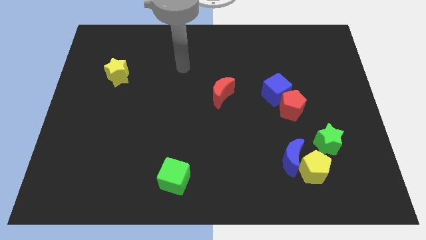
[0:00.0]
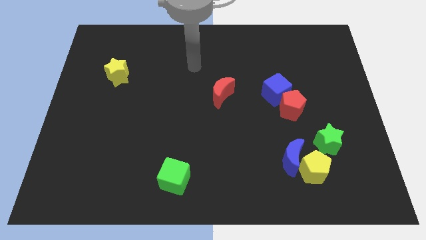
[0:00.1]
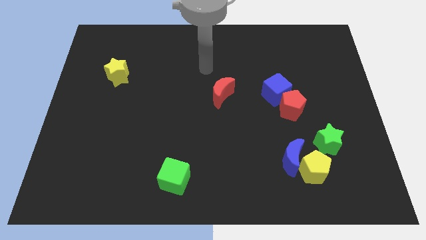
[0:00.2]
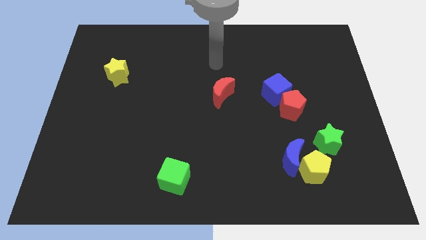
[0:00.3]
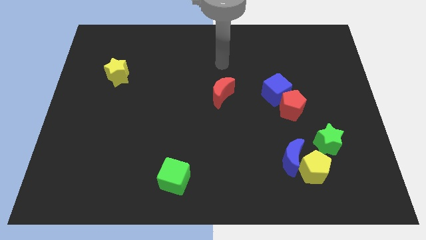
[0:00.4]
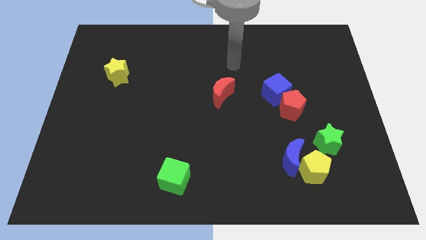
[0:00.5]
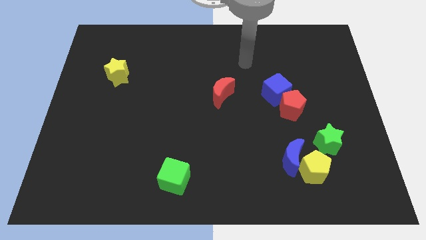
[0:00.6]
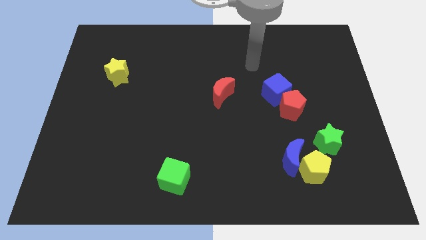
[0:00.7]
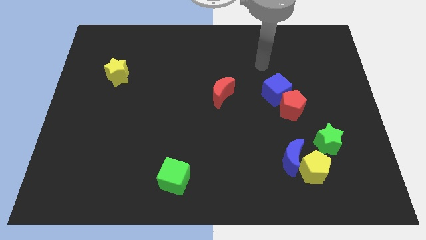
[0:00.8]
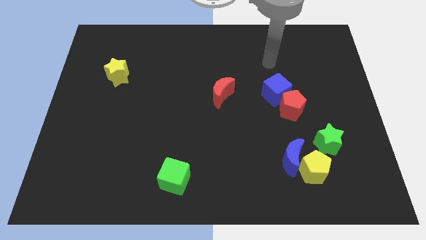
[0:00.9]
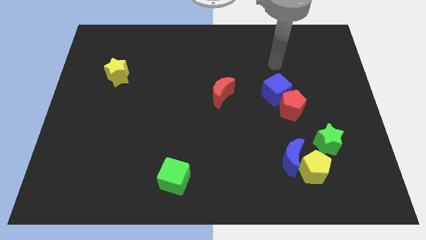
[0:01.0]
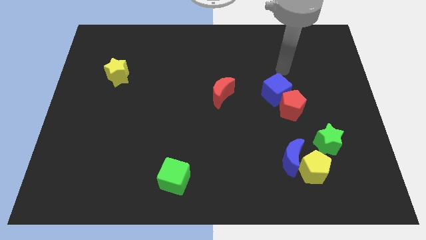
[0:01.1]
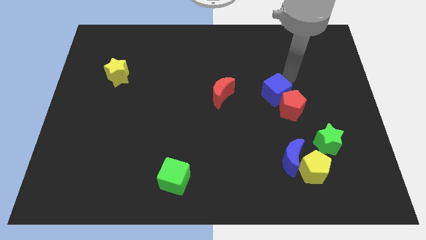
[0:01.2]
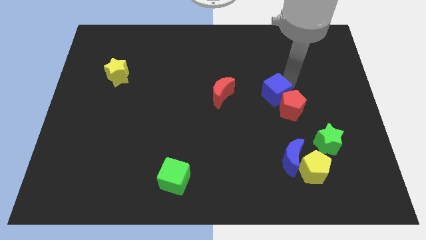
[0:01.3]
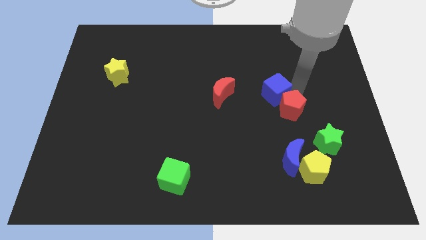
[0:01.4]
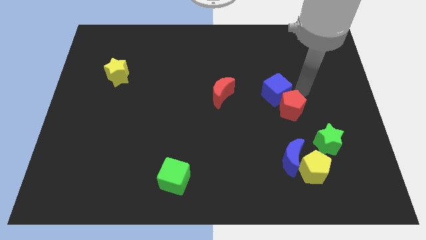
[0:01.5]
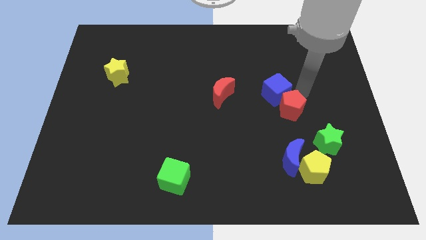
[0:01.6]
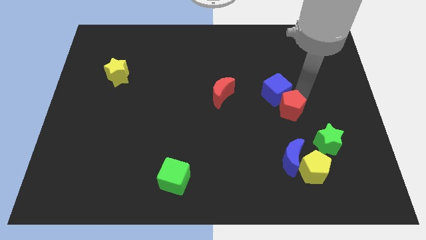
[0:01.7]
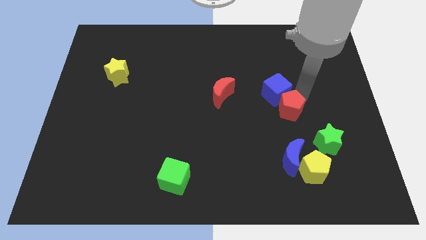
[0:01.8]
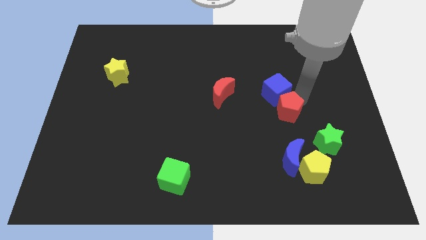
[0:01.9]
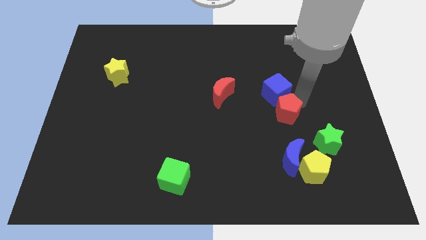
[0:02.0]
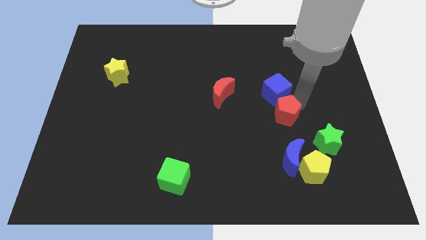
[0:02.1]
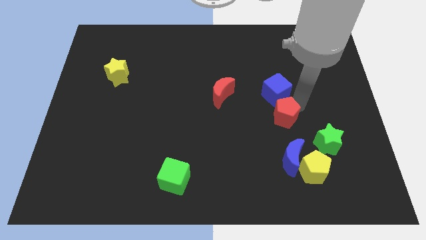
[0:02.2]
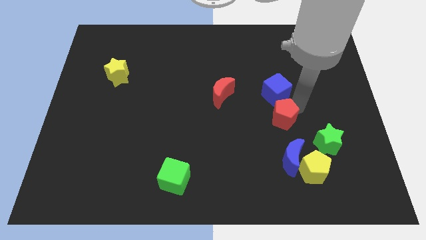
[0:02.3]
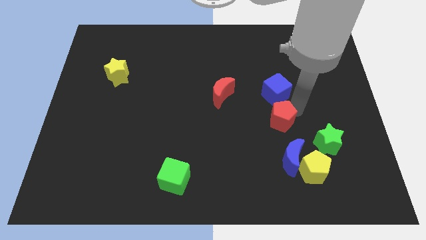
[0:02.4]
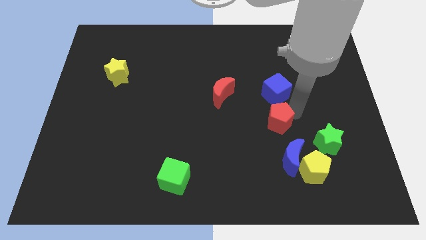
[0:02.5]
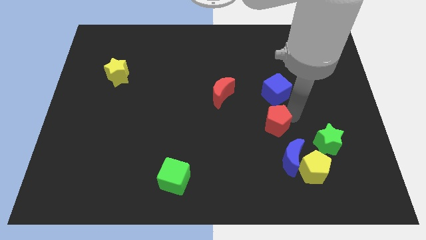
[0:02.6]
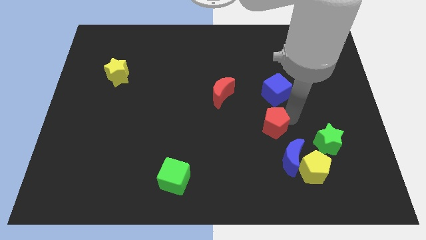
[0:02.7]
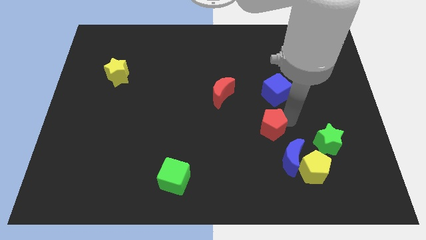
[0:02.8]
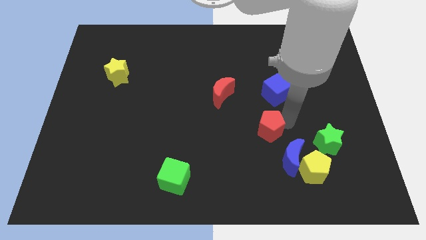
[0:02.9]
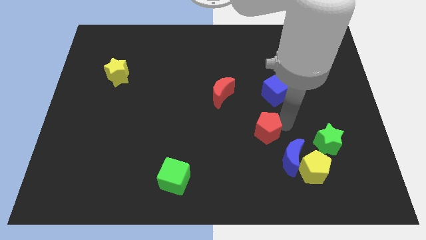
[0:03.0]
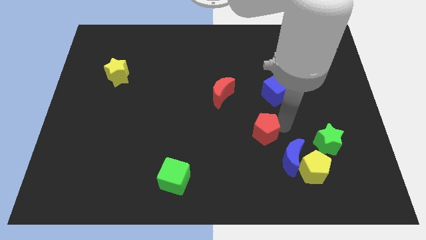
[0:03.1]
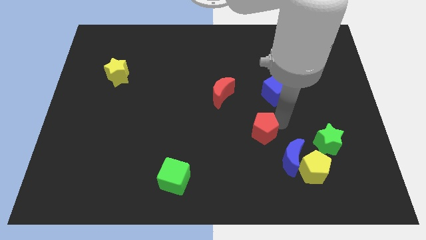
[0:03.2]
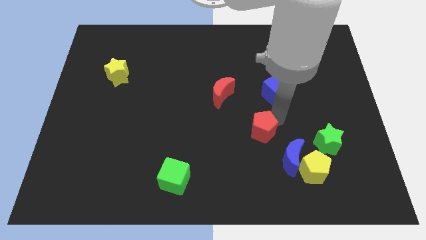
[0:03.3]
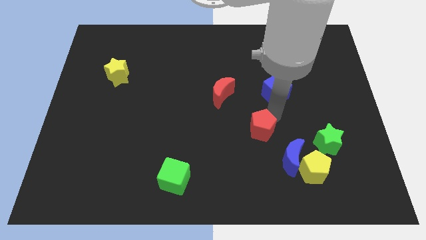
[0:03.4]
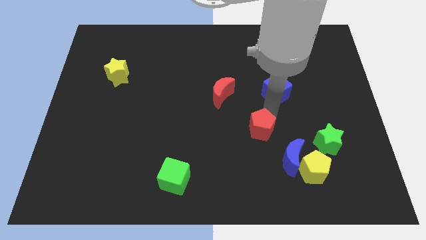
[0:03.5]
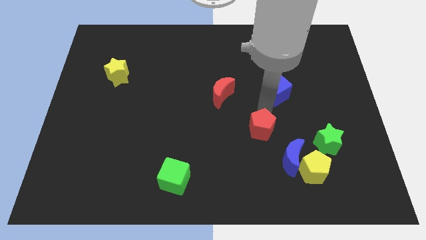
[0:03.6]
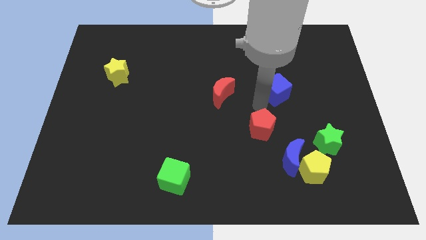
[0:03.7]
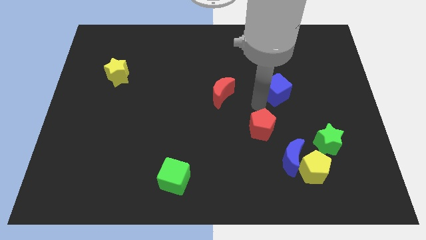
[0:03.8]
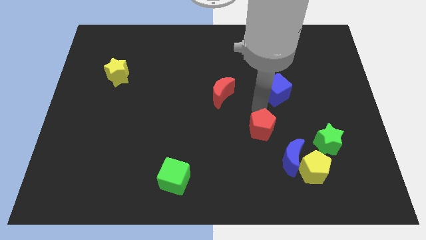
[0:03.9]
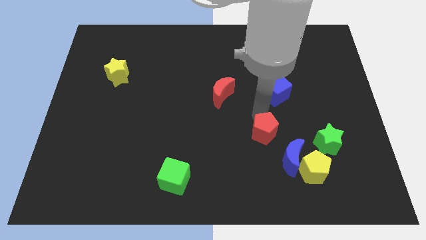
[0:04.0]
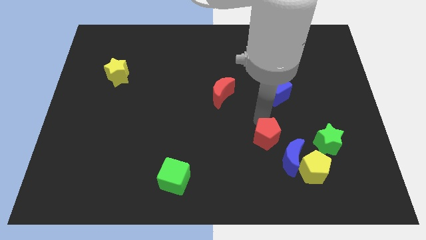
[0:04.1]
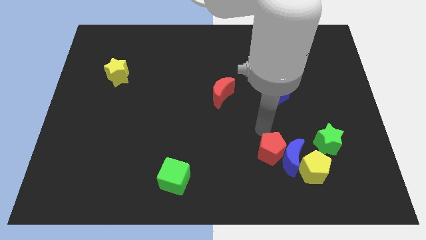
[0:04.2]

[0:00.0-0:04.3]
slightly slide the red pentagon down

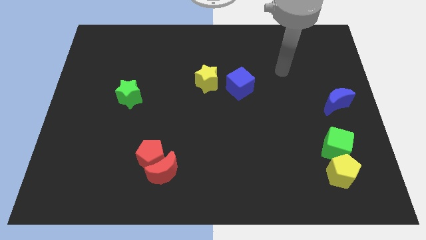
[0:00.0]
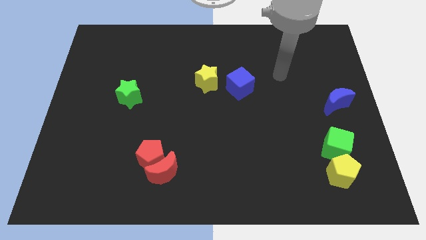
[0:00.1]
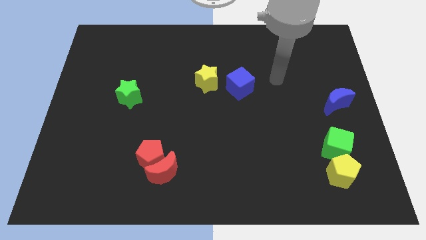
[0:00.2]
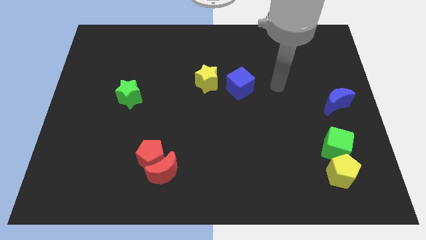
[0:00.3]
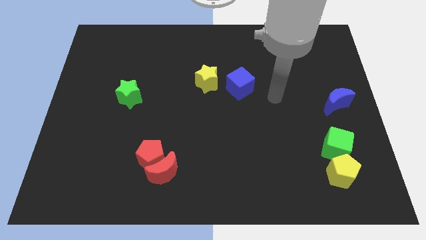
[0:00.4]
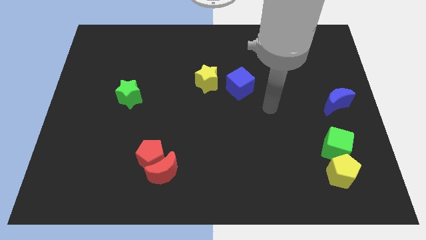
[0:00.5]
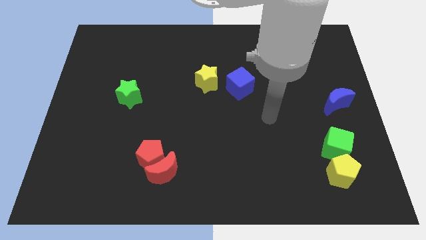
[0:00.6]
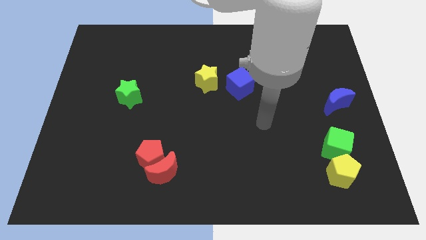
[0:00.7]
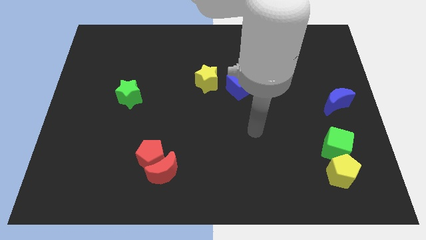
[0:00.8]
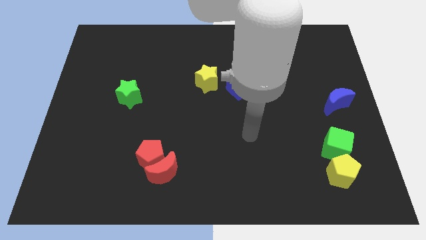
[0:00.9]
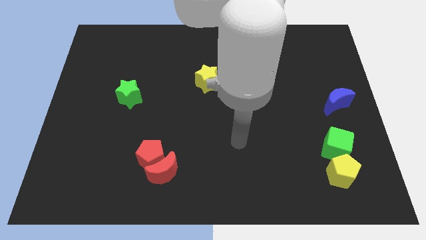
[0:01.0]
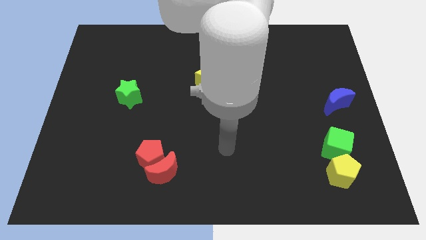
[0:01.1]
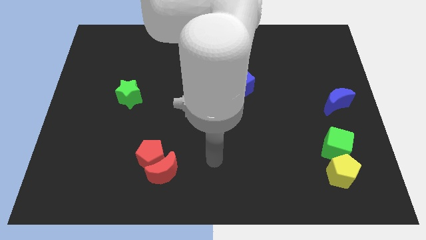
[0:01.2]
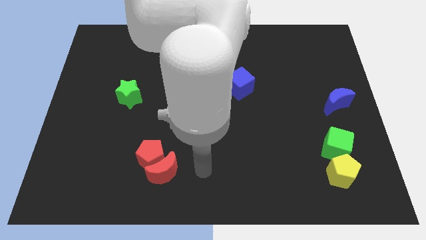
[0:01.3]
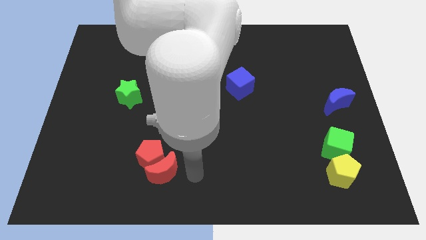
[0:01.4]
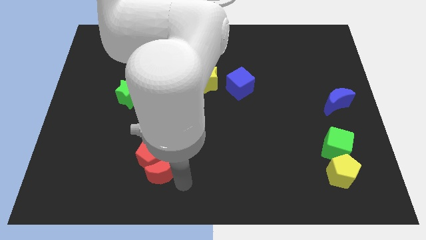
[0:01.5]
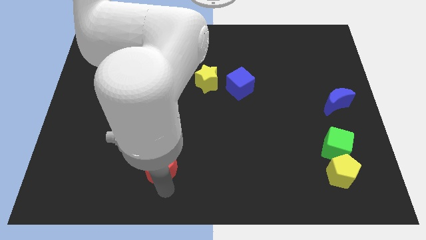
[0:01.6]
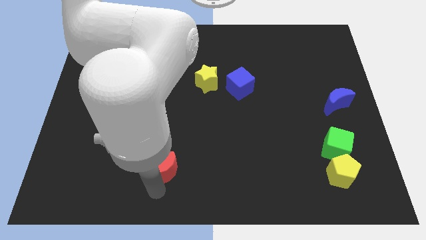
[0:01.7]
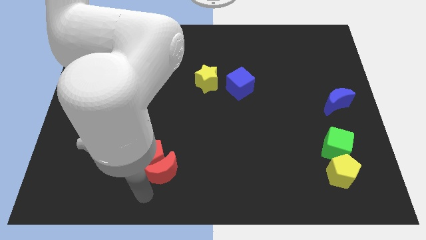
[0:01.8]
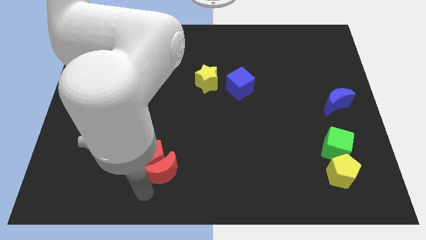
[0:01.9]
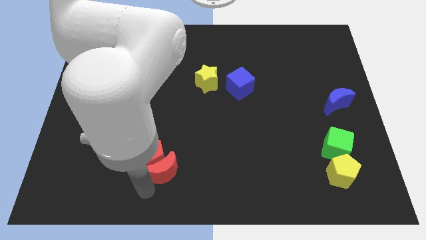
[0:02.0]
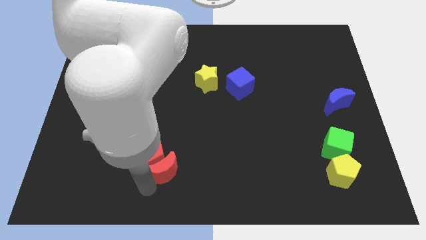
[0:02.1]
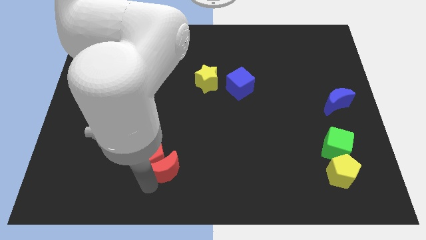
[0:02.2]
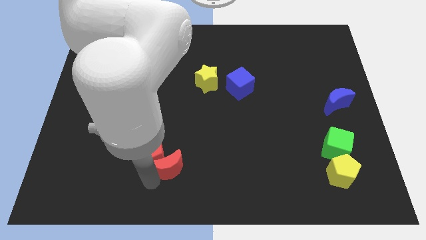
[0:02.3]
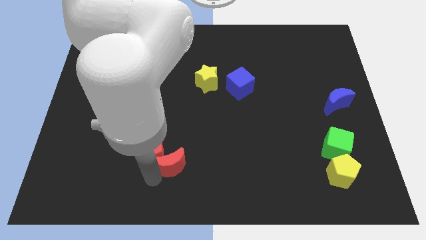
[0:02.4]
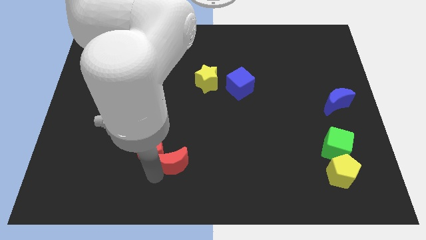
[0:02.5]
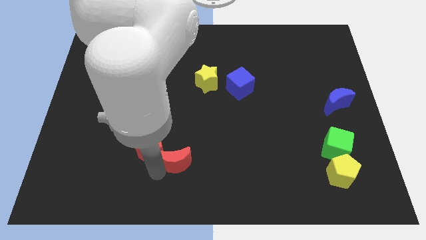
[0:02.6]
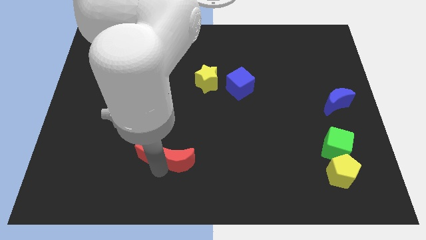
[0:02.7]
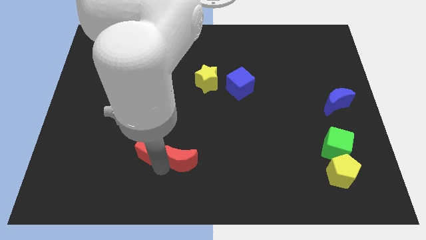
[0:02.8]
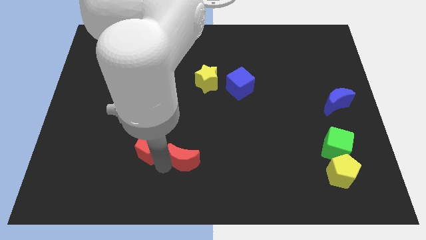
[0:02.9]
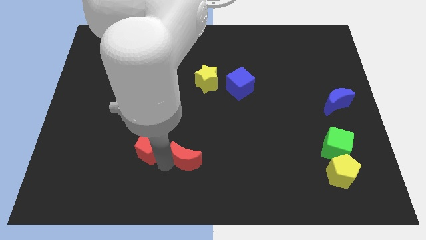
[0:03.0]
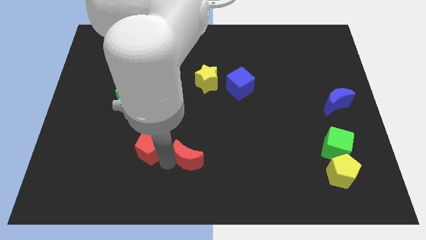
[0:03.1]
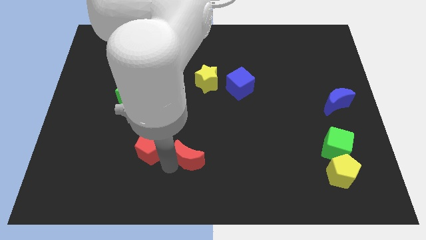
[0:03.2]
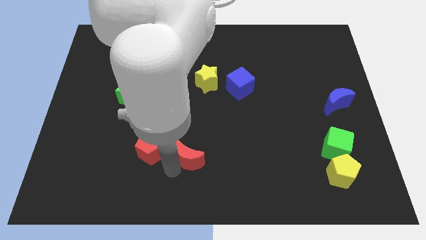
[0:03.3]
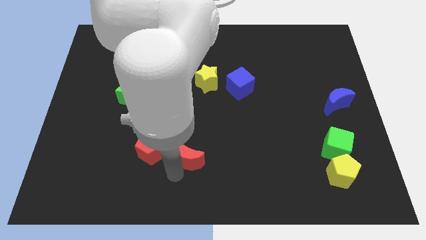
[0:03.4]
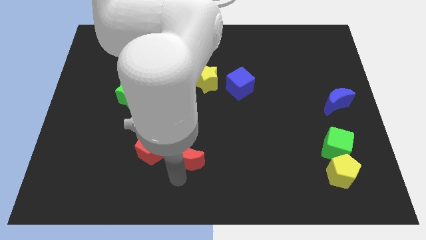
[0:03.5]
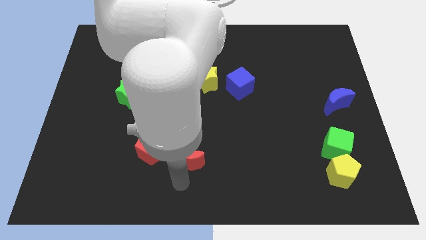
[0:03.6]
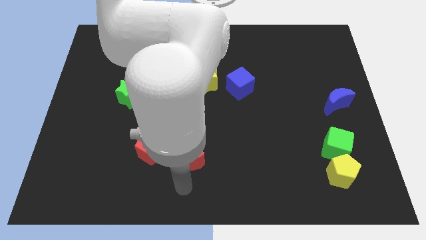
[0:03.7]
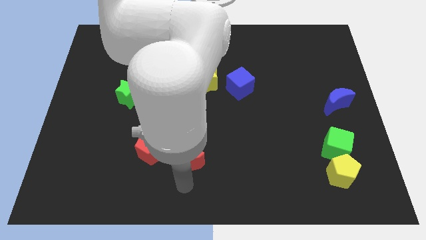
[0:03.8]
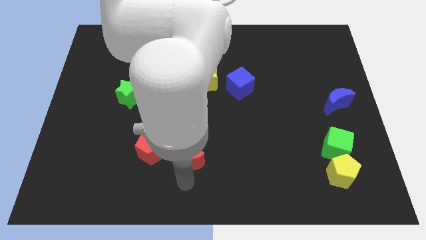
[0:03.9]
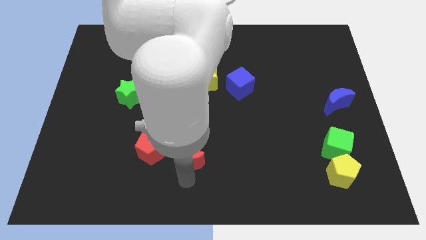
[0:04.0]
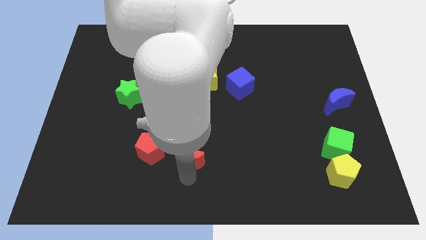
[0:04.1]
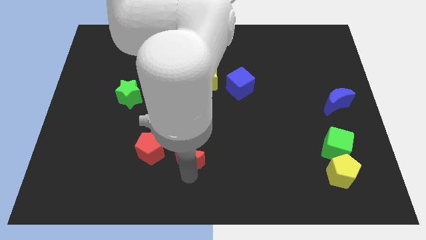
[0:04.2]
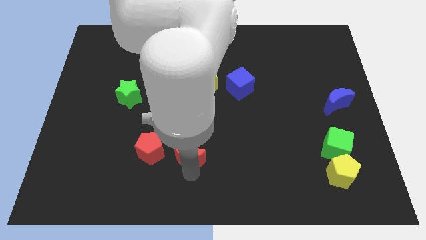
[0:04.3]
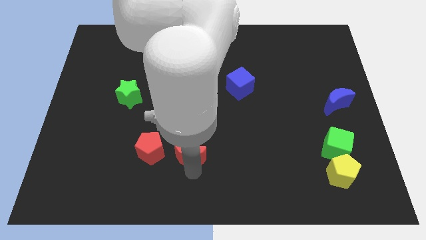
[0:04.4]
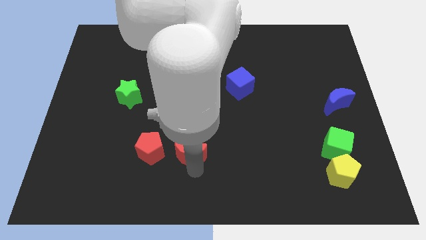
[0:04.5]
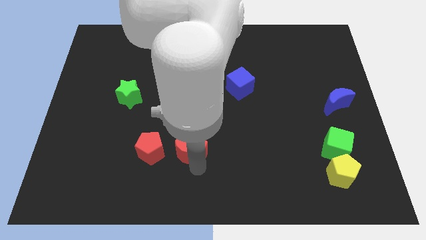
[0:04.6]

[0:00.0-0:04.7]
move the red moon up and then to the right a little bit
